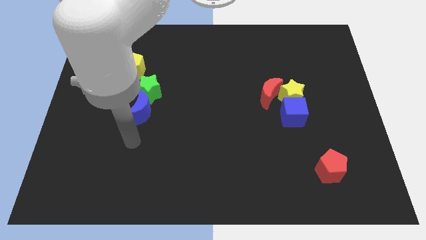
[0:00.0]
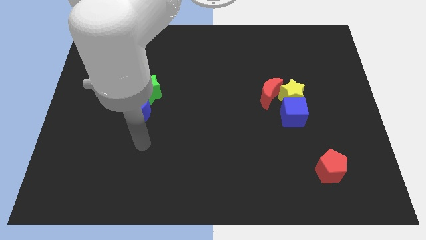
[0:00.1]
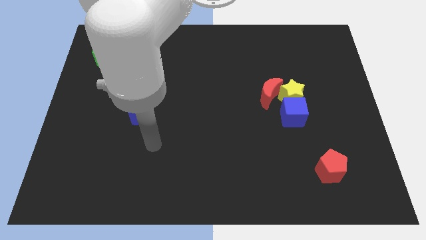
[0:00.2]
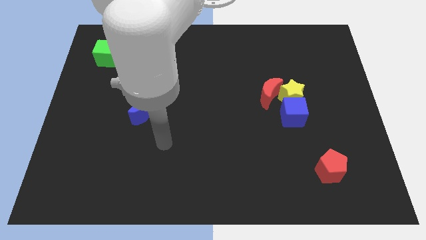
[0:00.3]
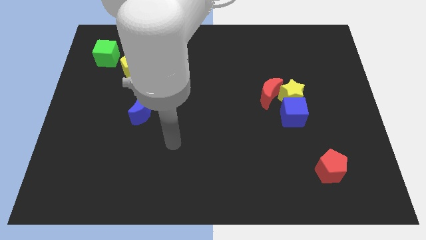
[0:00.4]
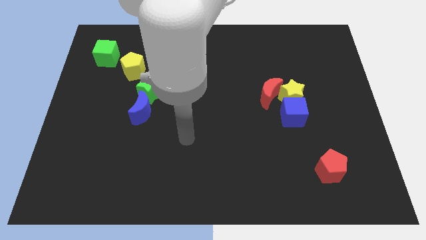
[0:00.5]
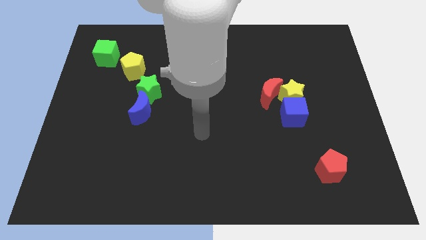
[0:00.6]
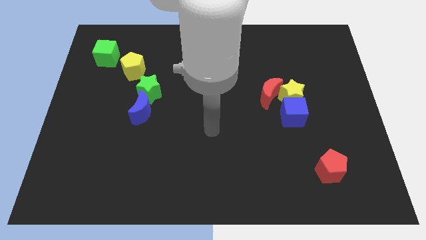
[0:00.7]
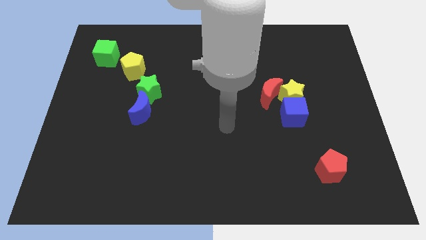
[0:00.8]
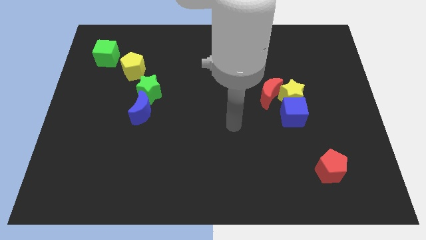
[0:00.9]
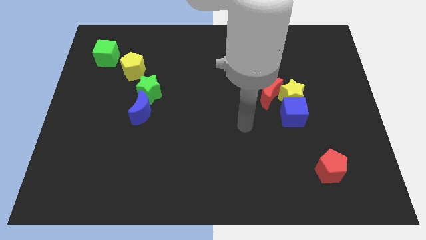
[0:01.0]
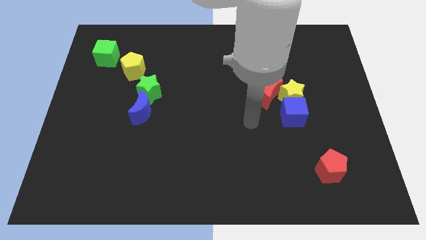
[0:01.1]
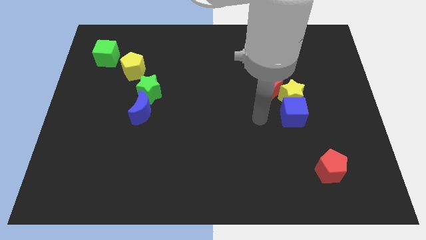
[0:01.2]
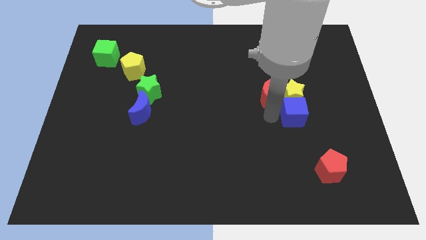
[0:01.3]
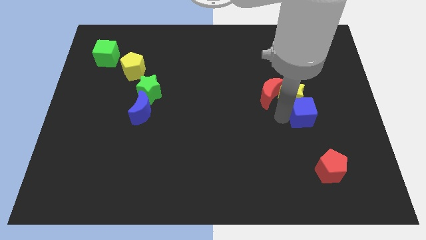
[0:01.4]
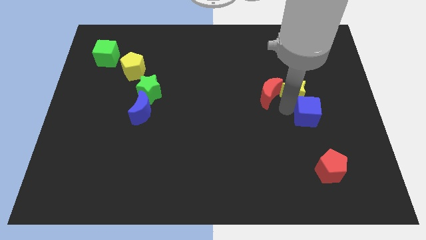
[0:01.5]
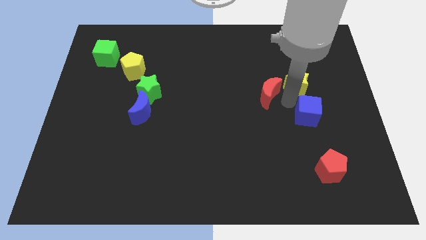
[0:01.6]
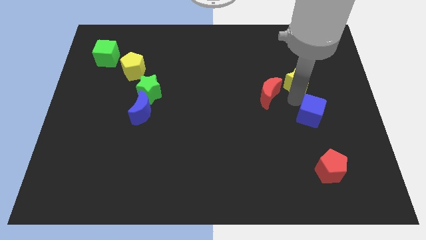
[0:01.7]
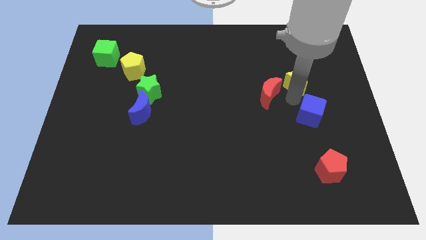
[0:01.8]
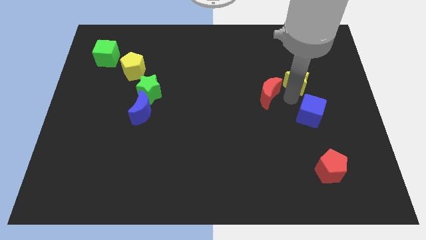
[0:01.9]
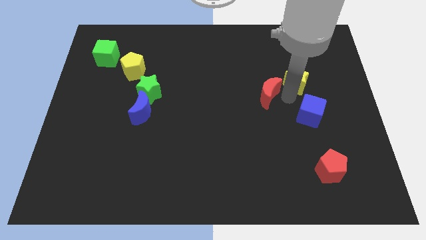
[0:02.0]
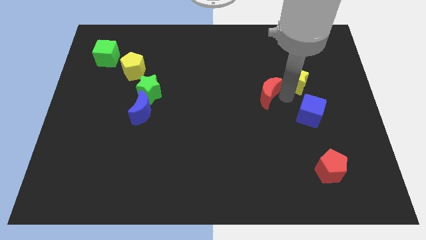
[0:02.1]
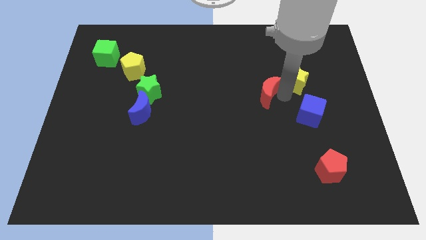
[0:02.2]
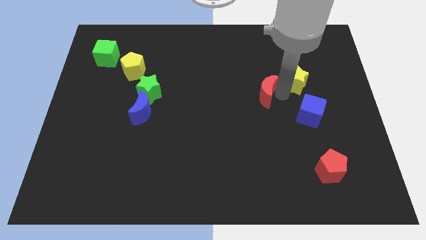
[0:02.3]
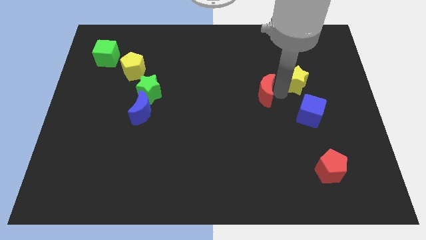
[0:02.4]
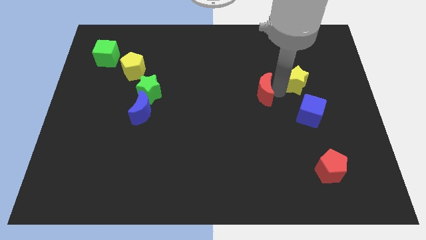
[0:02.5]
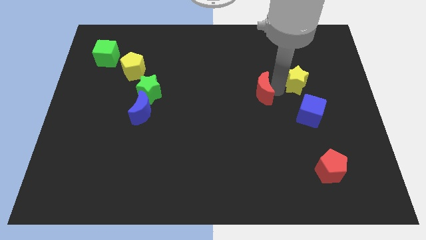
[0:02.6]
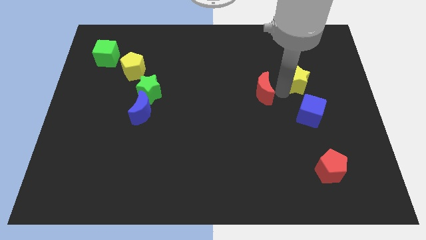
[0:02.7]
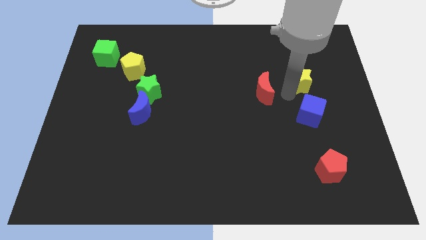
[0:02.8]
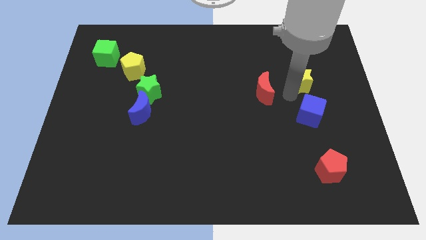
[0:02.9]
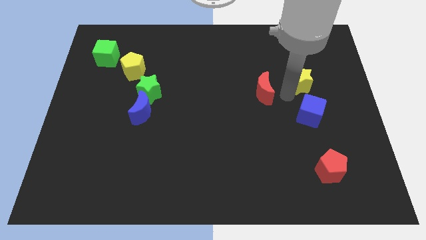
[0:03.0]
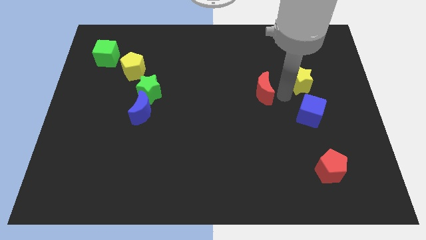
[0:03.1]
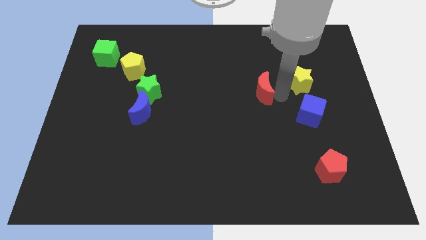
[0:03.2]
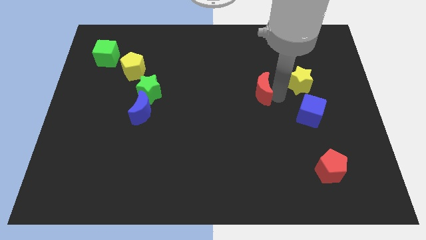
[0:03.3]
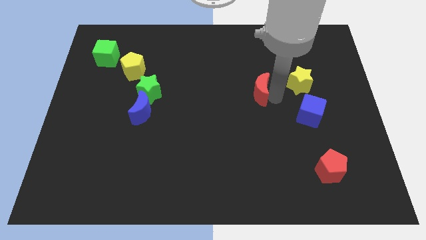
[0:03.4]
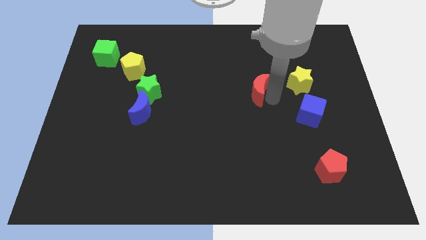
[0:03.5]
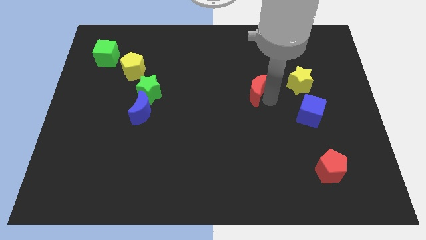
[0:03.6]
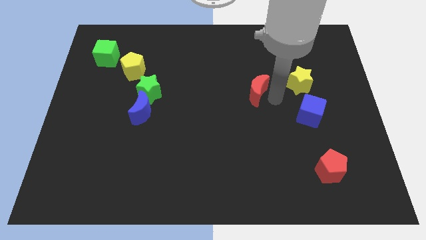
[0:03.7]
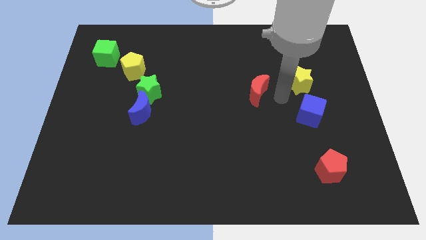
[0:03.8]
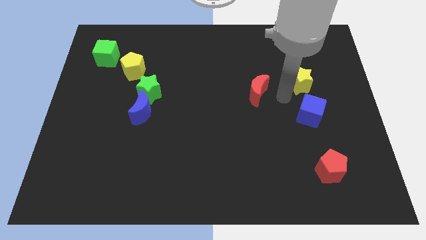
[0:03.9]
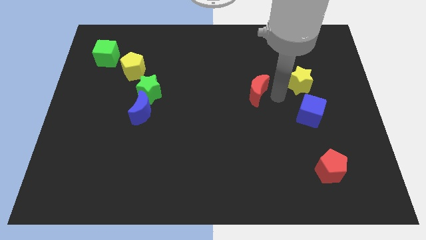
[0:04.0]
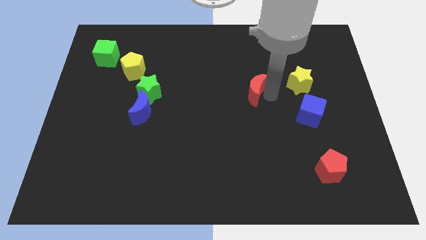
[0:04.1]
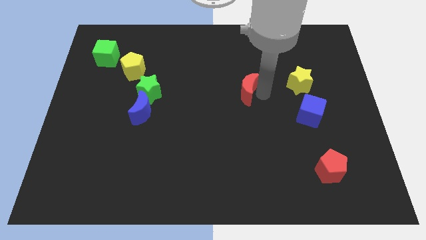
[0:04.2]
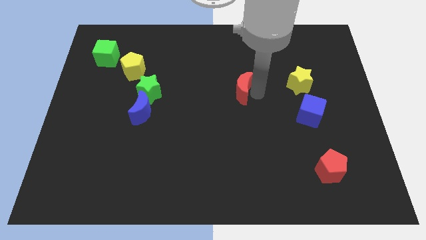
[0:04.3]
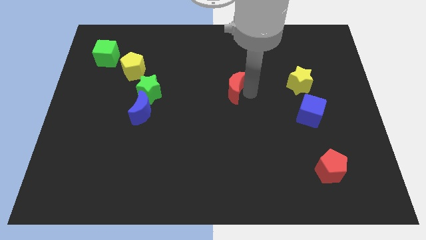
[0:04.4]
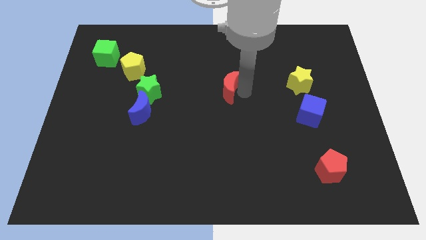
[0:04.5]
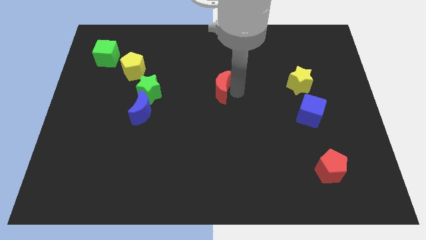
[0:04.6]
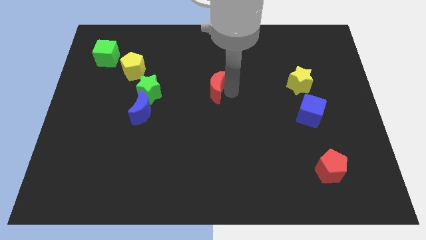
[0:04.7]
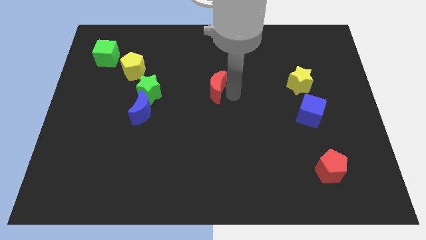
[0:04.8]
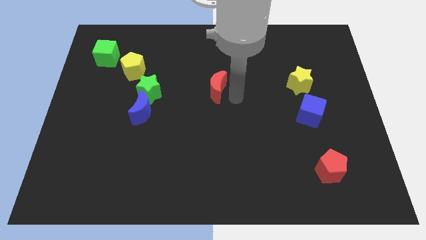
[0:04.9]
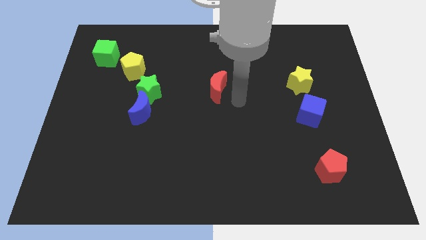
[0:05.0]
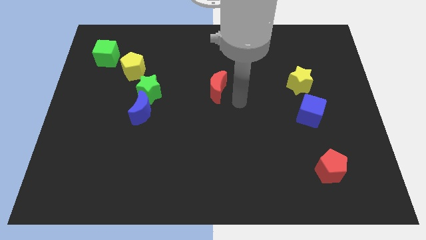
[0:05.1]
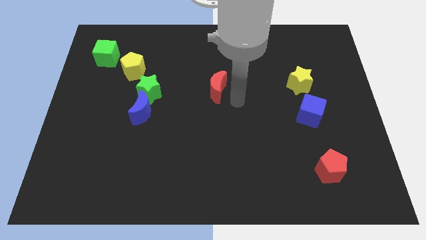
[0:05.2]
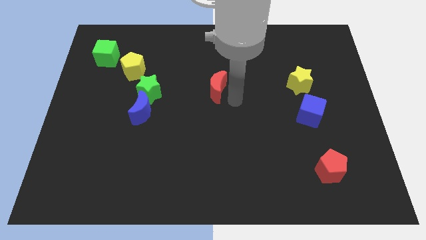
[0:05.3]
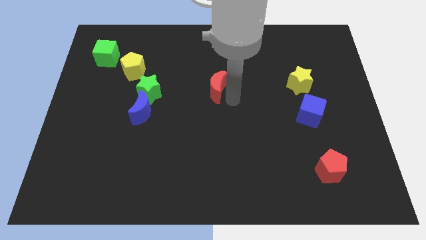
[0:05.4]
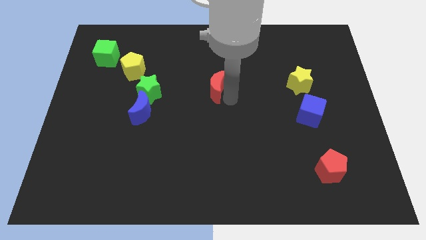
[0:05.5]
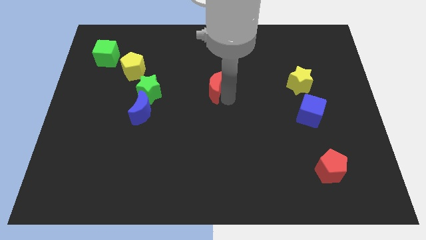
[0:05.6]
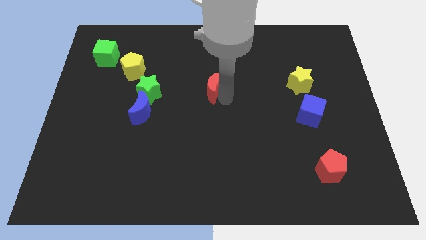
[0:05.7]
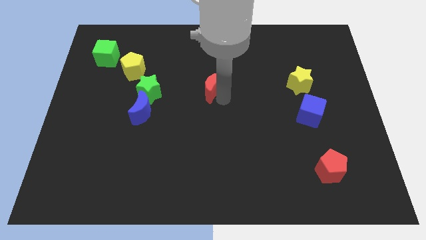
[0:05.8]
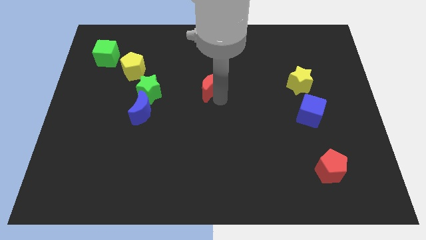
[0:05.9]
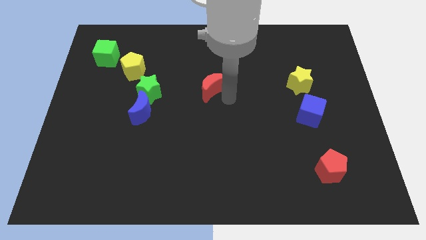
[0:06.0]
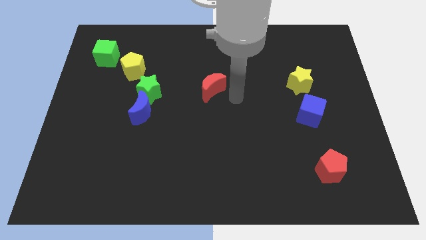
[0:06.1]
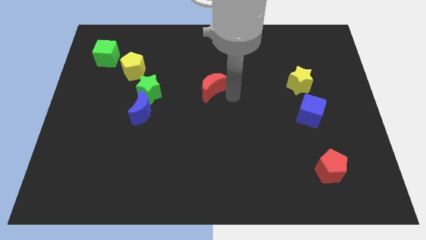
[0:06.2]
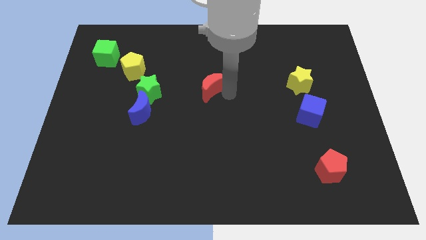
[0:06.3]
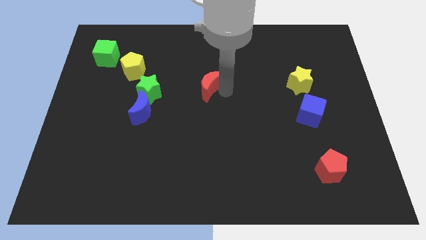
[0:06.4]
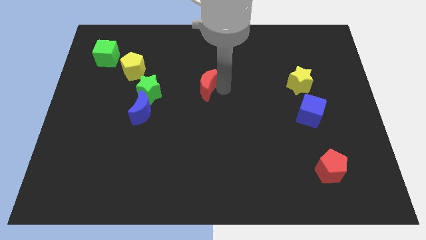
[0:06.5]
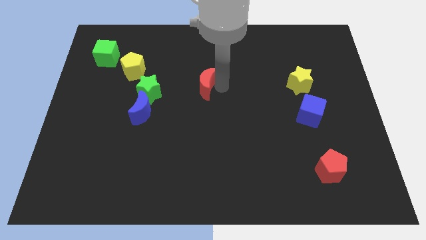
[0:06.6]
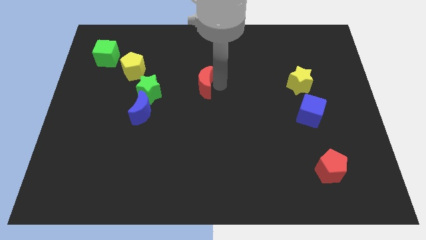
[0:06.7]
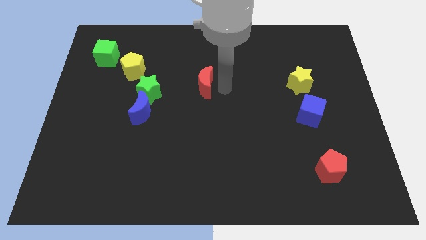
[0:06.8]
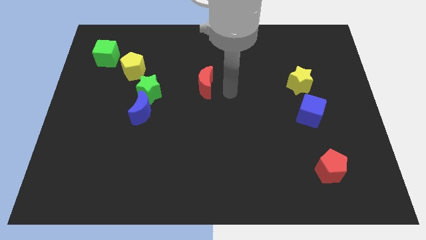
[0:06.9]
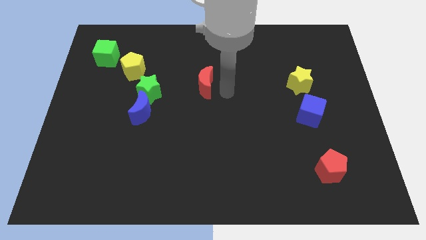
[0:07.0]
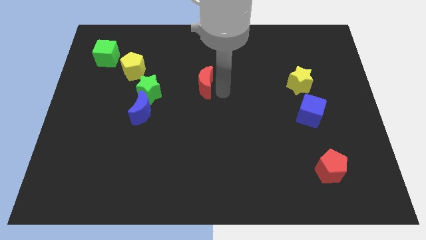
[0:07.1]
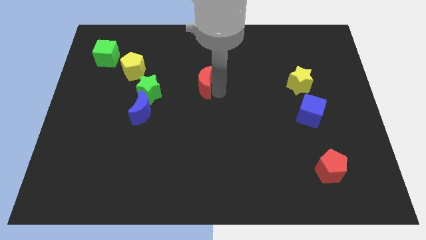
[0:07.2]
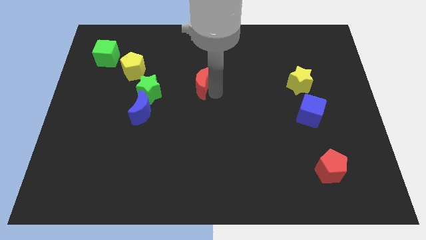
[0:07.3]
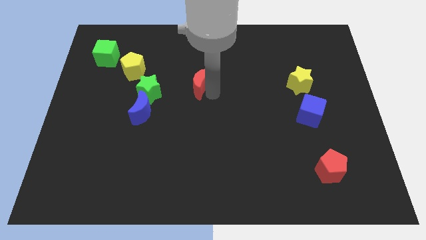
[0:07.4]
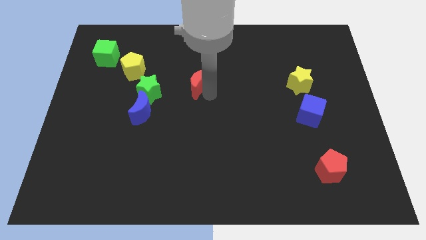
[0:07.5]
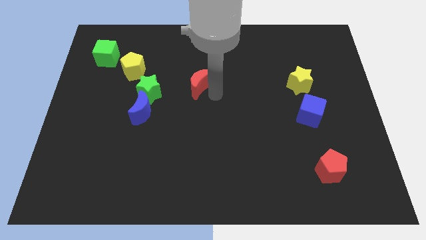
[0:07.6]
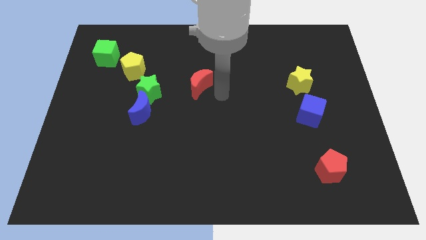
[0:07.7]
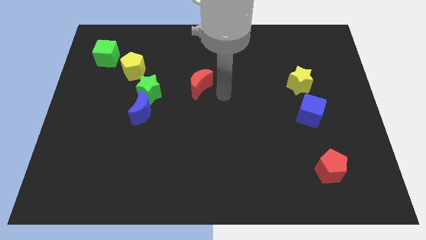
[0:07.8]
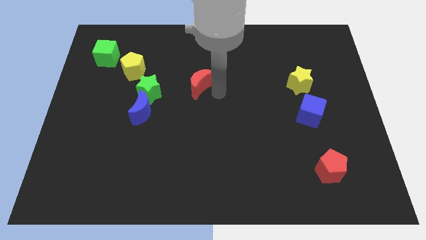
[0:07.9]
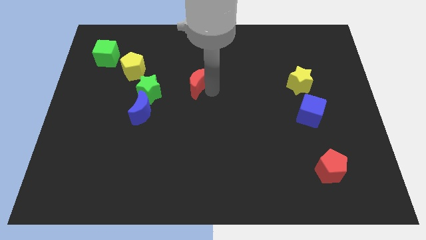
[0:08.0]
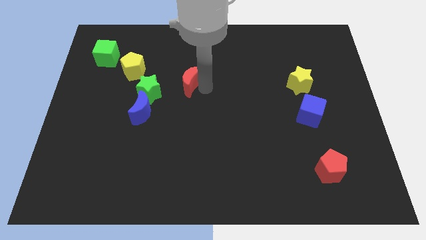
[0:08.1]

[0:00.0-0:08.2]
push the red moon to the top right of the green star
